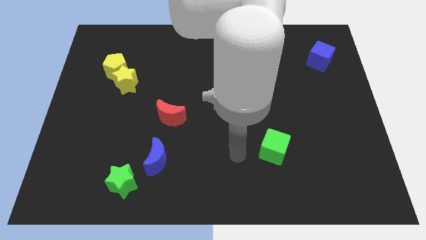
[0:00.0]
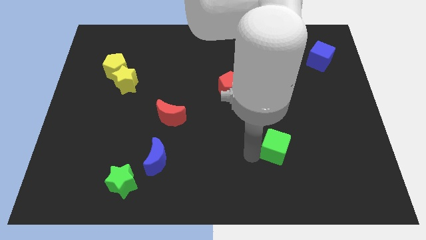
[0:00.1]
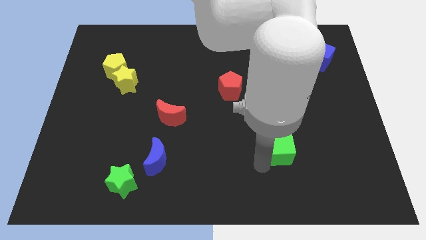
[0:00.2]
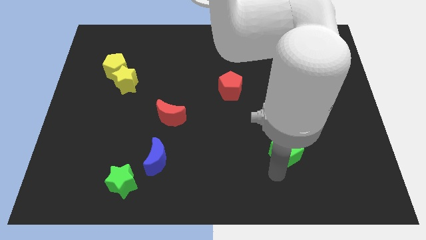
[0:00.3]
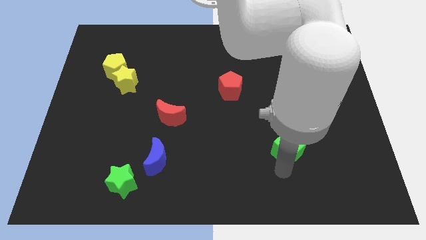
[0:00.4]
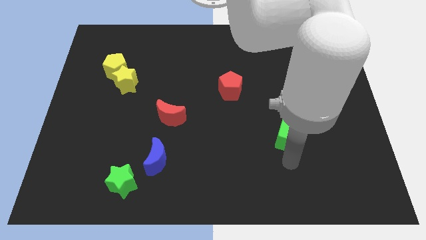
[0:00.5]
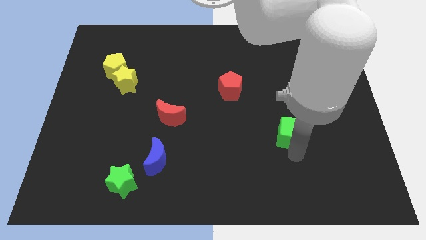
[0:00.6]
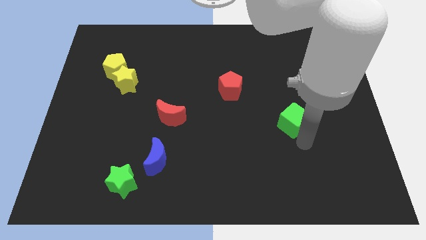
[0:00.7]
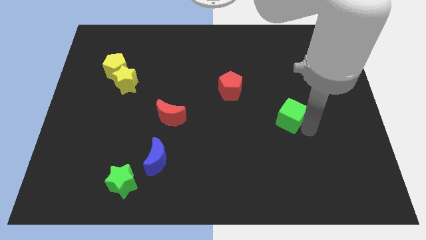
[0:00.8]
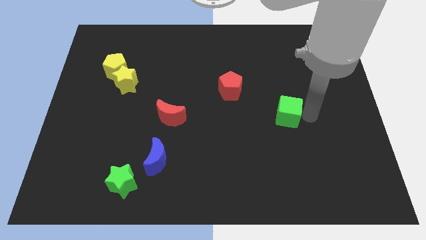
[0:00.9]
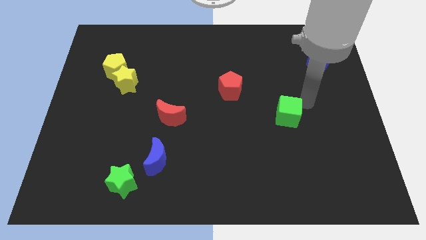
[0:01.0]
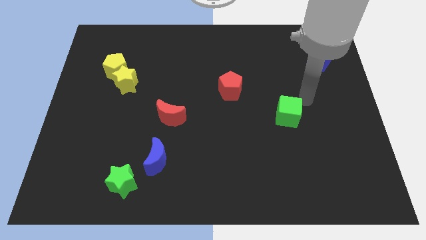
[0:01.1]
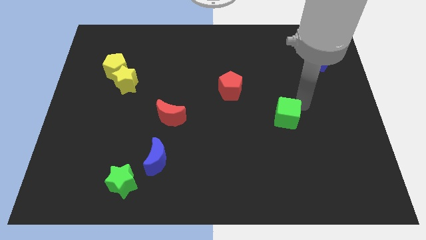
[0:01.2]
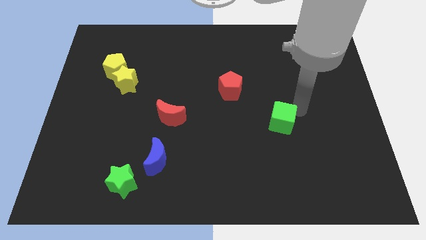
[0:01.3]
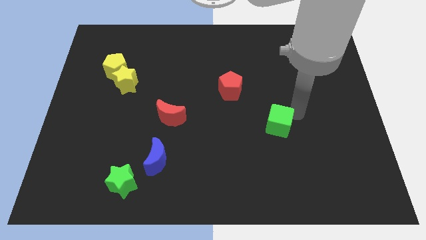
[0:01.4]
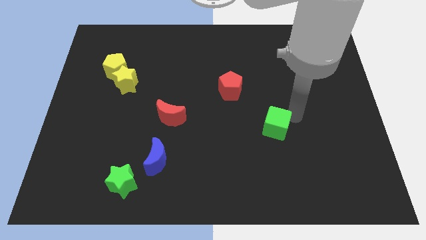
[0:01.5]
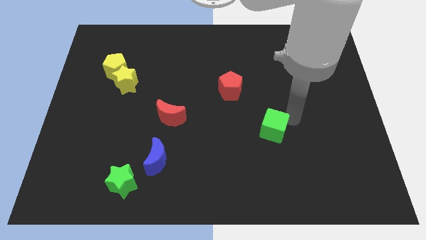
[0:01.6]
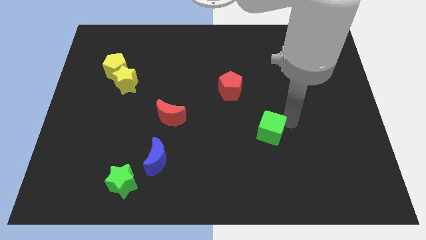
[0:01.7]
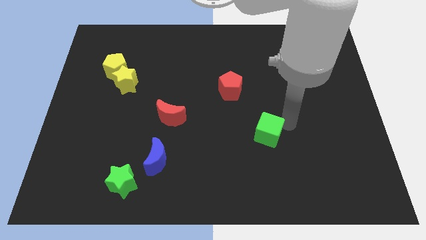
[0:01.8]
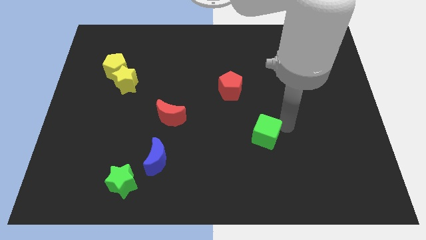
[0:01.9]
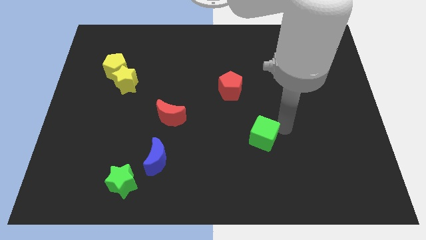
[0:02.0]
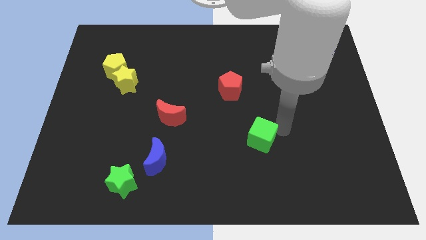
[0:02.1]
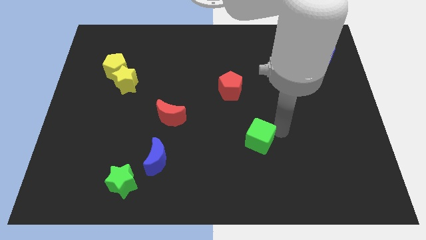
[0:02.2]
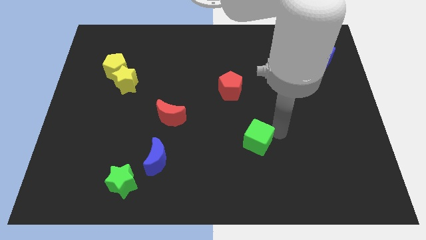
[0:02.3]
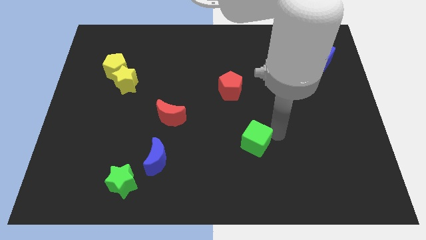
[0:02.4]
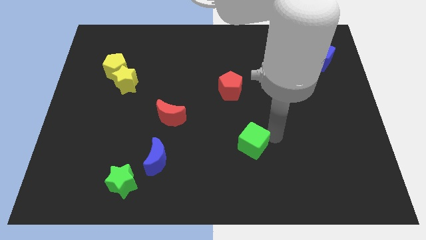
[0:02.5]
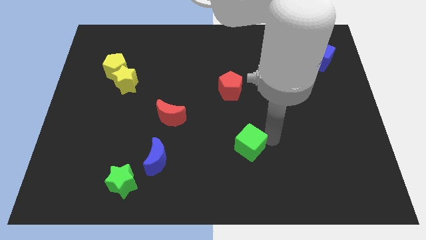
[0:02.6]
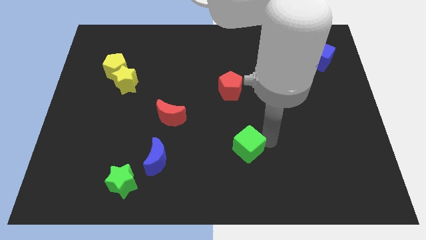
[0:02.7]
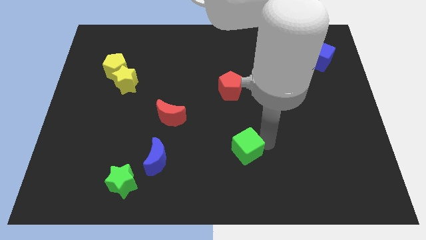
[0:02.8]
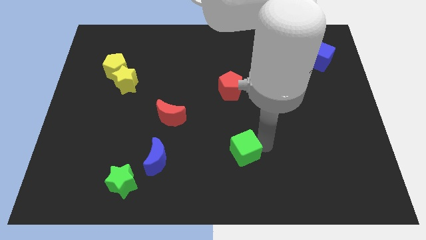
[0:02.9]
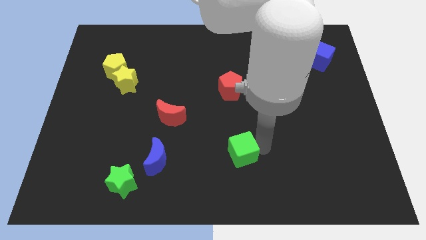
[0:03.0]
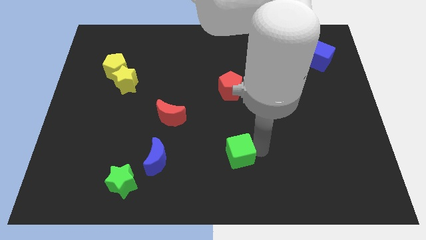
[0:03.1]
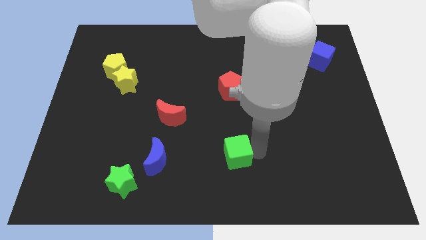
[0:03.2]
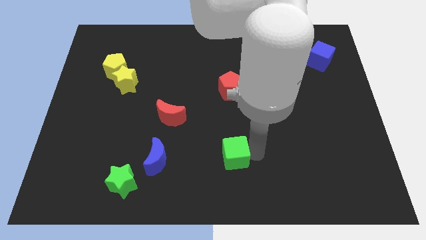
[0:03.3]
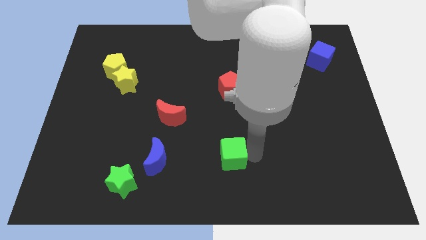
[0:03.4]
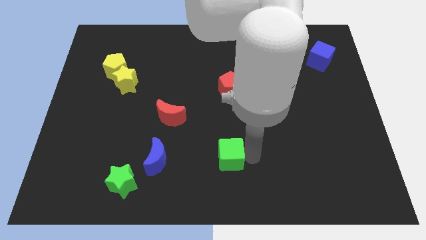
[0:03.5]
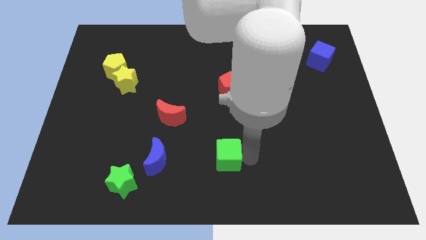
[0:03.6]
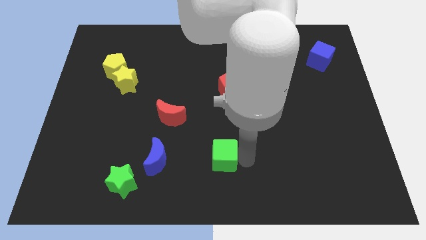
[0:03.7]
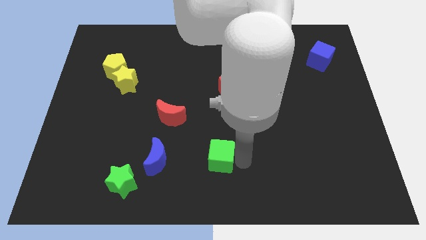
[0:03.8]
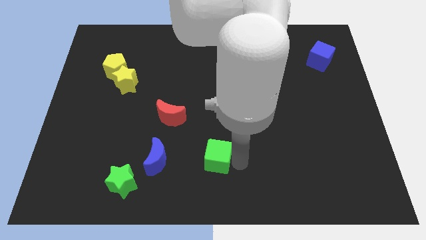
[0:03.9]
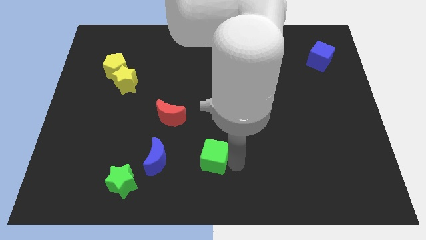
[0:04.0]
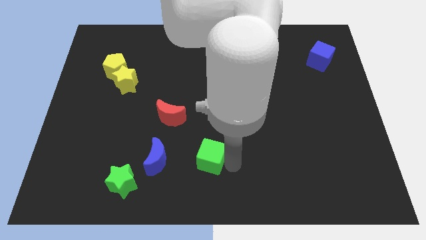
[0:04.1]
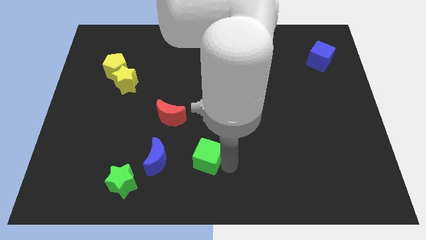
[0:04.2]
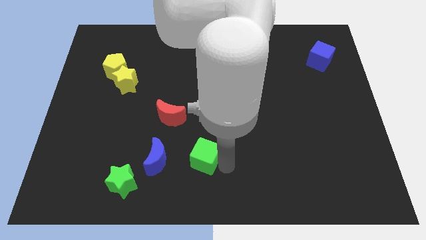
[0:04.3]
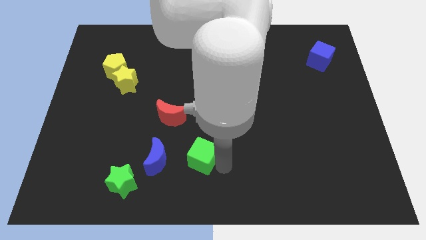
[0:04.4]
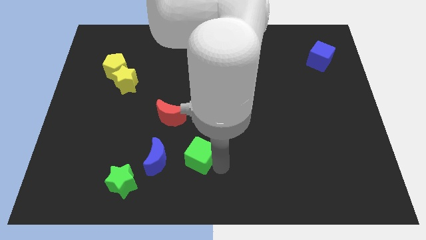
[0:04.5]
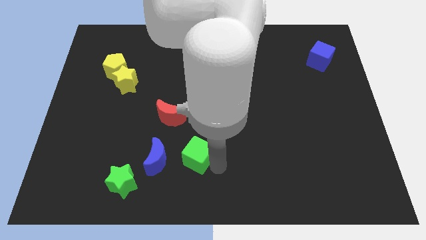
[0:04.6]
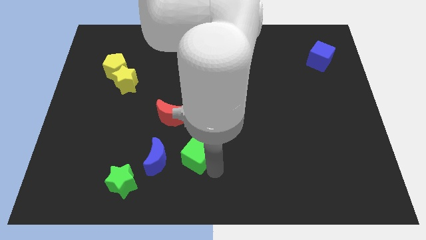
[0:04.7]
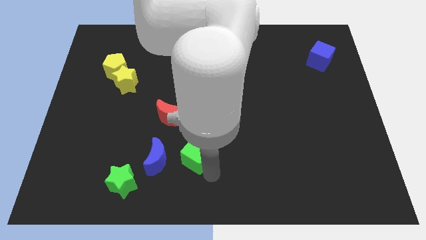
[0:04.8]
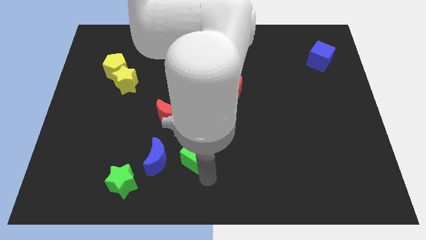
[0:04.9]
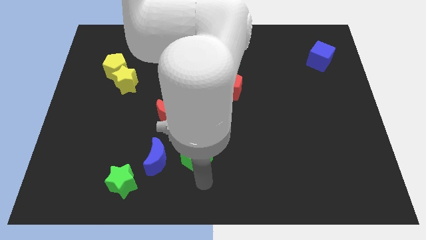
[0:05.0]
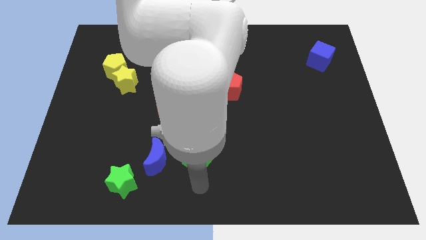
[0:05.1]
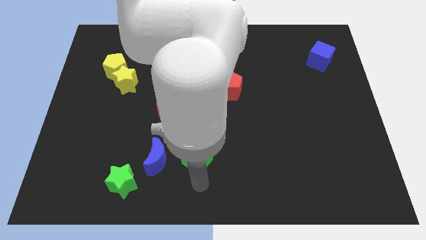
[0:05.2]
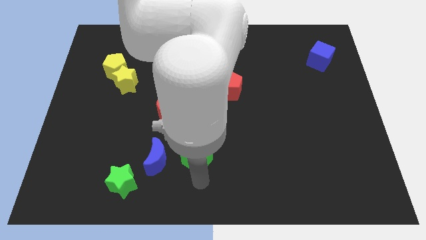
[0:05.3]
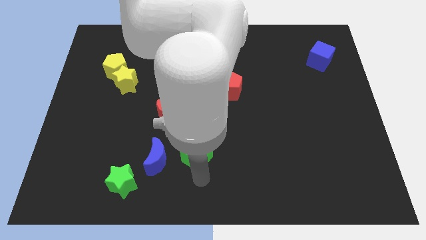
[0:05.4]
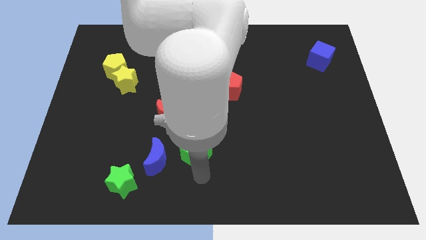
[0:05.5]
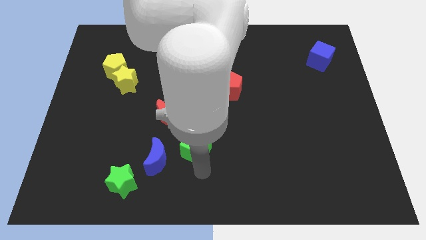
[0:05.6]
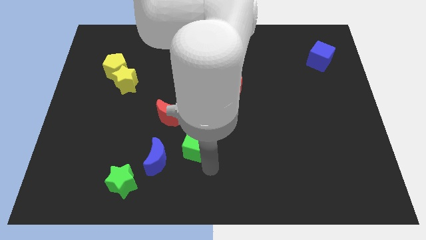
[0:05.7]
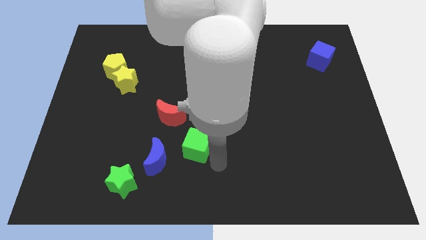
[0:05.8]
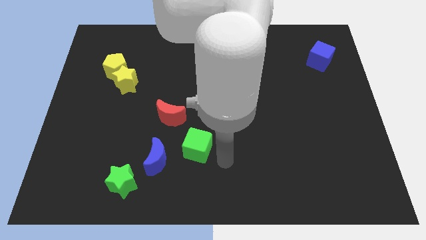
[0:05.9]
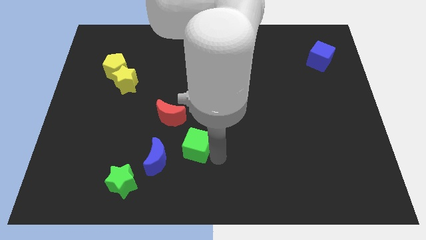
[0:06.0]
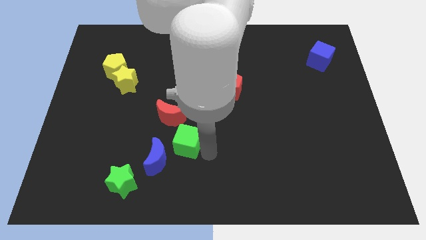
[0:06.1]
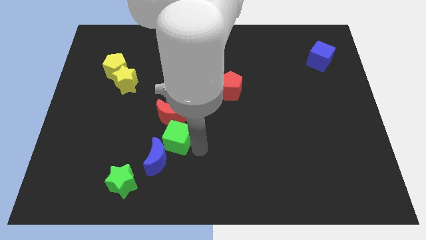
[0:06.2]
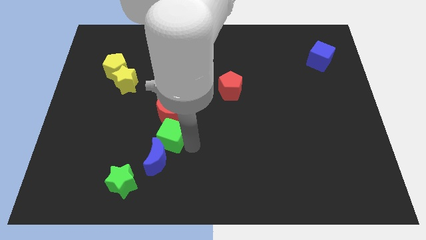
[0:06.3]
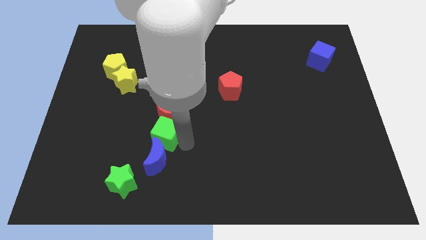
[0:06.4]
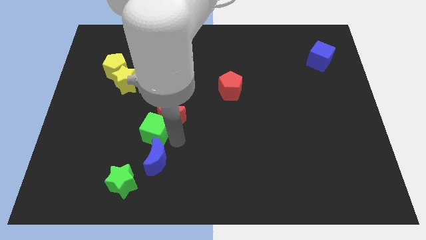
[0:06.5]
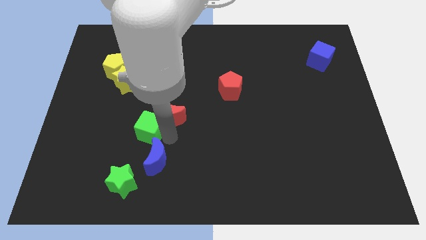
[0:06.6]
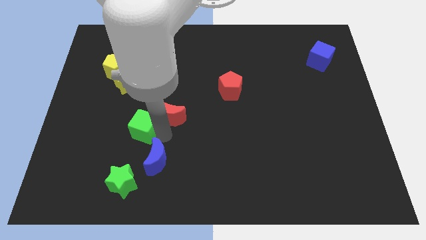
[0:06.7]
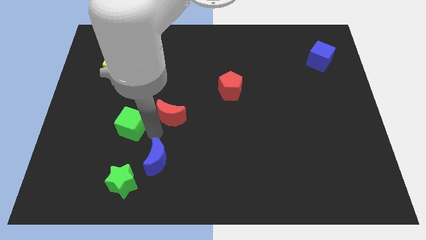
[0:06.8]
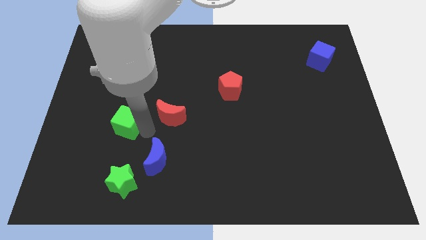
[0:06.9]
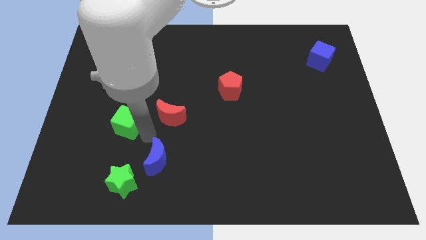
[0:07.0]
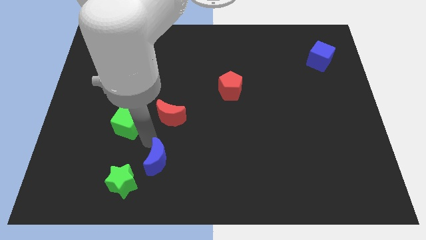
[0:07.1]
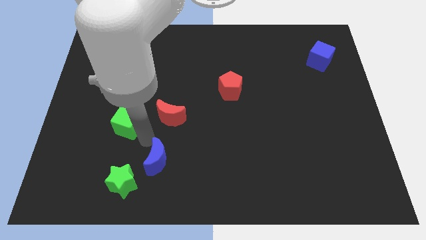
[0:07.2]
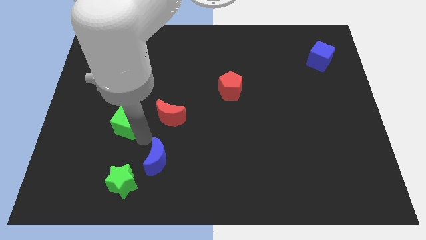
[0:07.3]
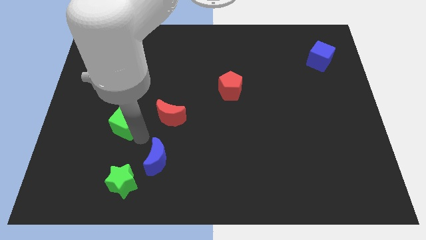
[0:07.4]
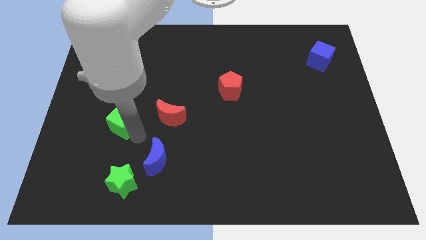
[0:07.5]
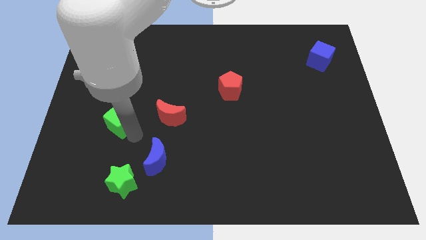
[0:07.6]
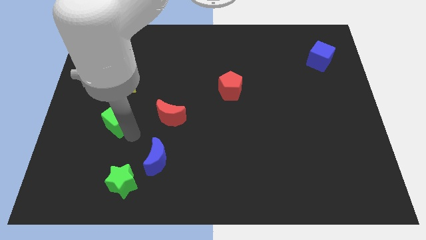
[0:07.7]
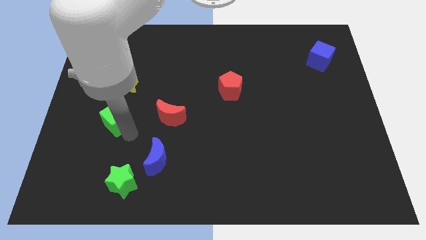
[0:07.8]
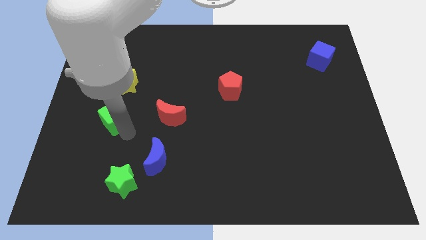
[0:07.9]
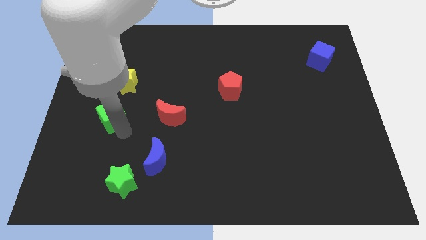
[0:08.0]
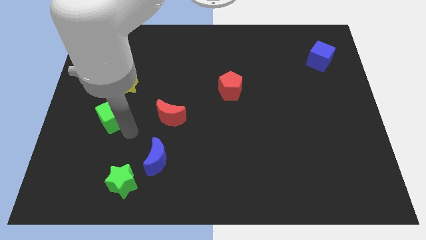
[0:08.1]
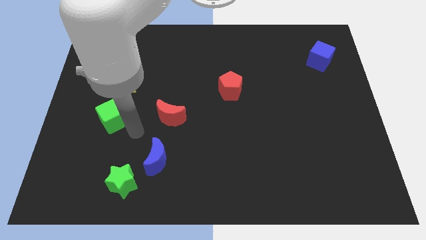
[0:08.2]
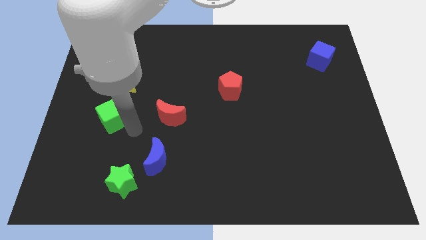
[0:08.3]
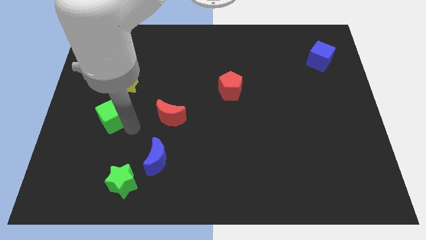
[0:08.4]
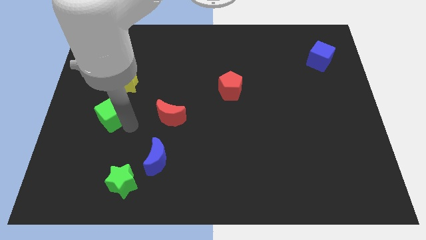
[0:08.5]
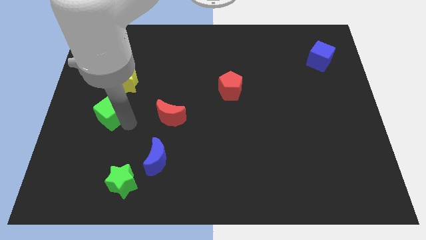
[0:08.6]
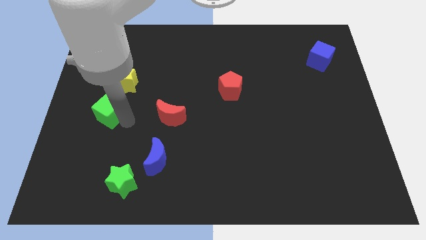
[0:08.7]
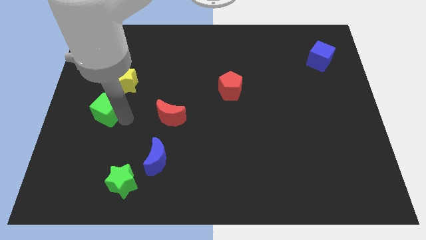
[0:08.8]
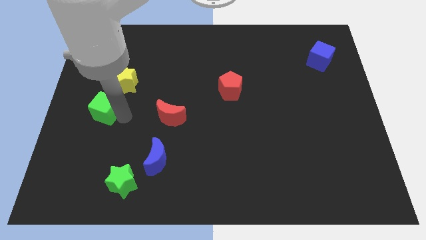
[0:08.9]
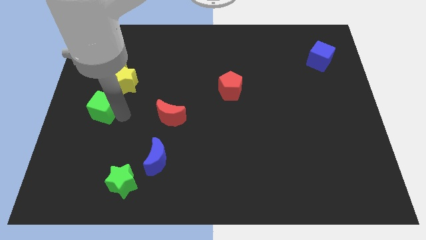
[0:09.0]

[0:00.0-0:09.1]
push the green cube to the left side
